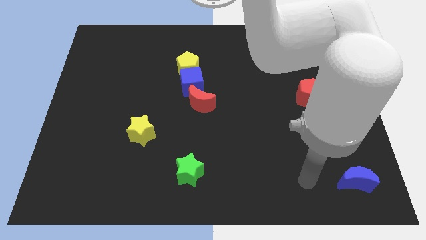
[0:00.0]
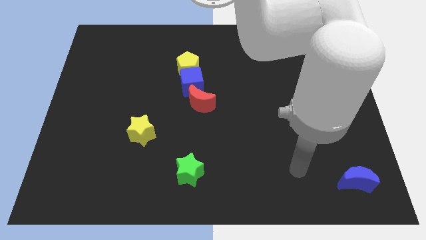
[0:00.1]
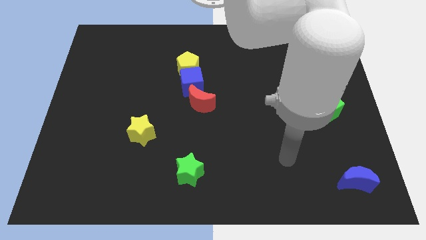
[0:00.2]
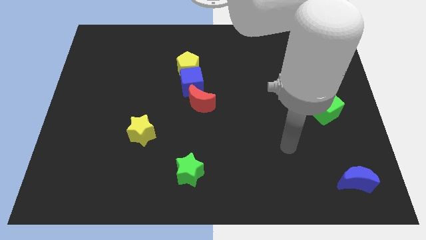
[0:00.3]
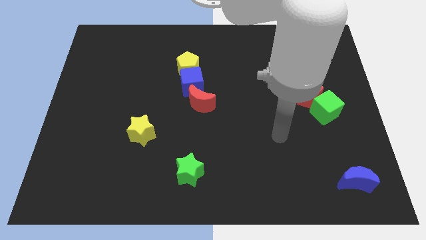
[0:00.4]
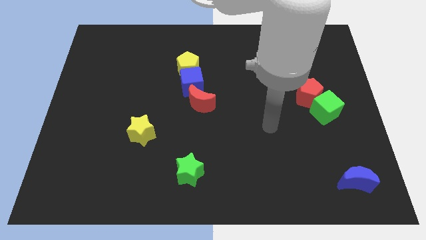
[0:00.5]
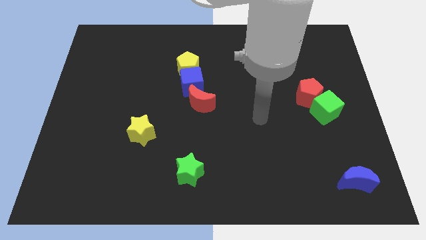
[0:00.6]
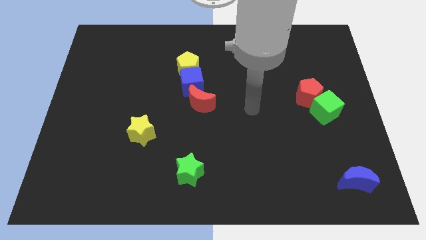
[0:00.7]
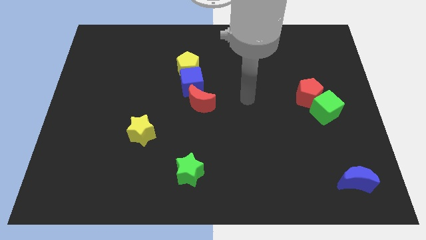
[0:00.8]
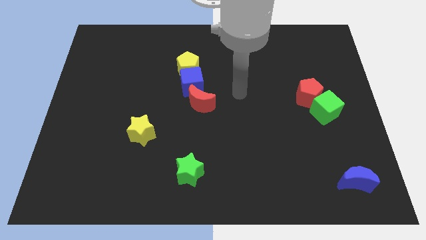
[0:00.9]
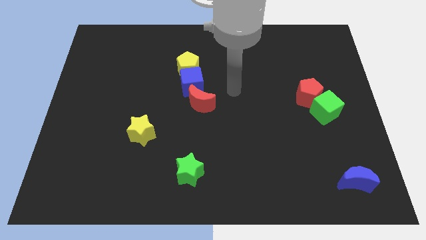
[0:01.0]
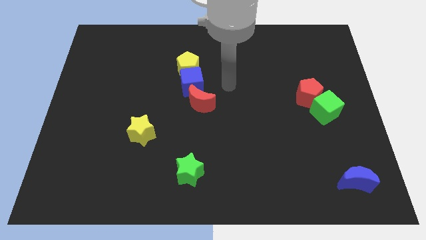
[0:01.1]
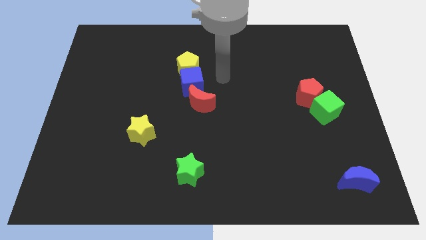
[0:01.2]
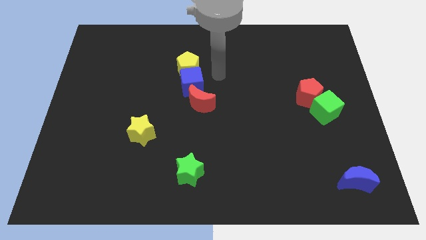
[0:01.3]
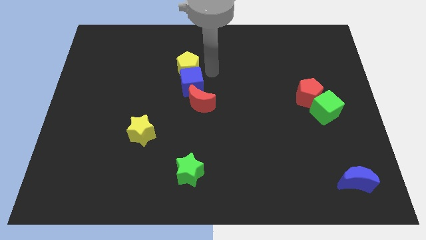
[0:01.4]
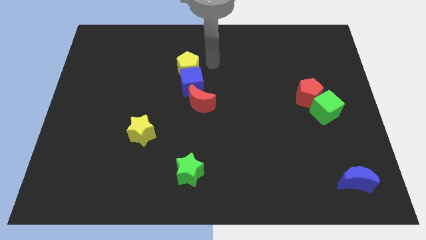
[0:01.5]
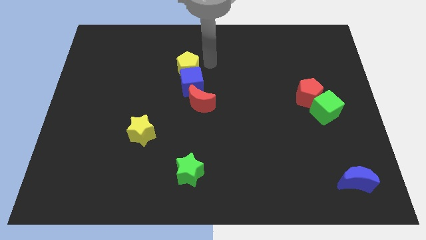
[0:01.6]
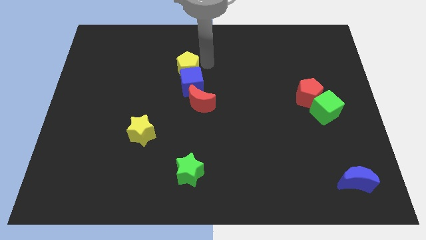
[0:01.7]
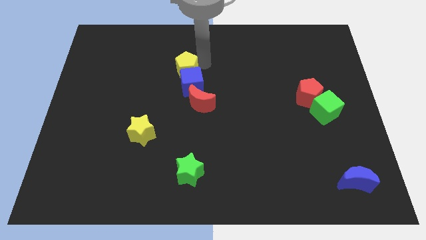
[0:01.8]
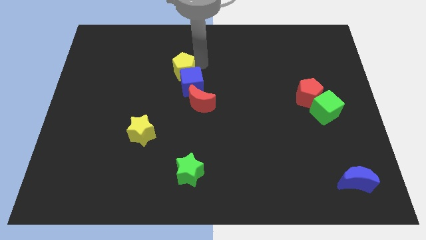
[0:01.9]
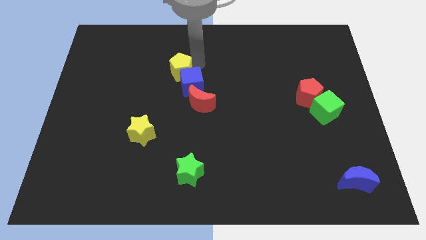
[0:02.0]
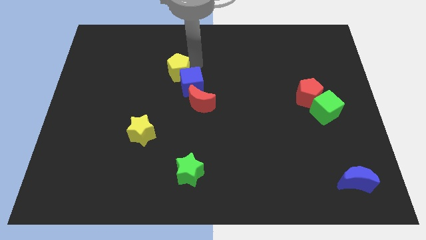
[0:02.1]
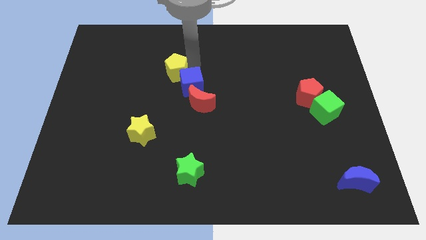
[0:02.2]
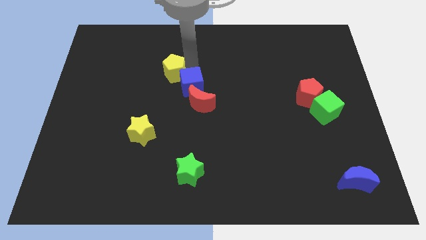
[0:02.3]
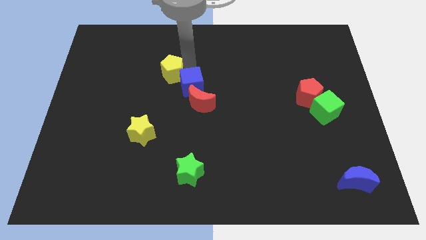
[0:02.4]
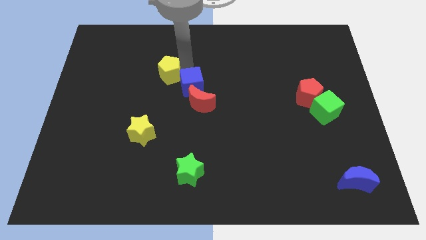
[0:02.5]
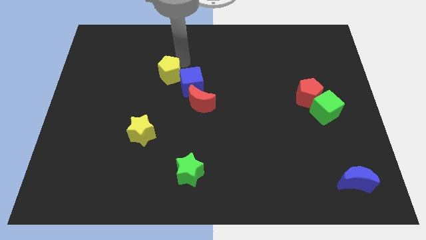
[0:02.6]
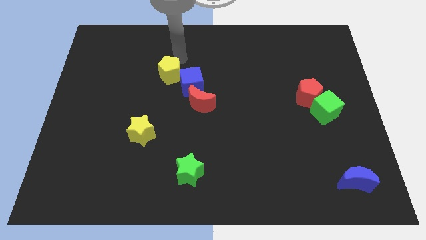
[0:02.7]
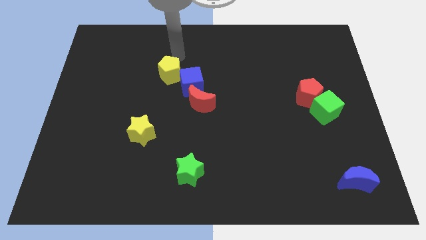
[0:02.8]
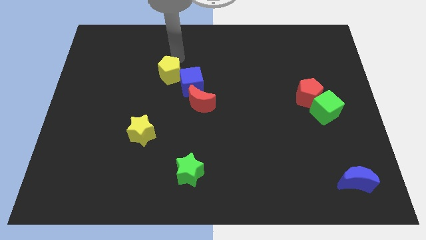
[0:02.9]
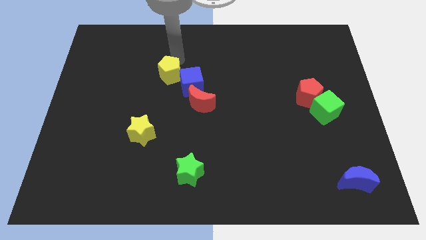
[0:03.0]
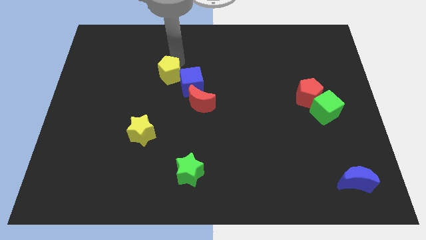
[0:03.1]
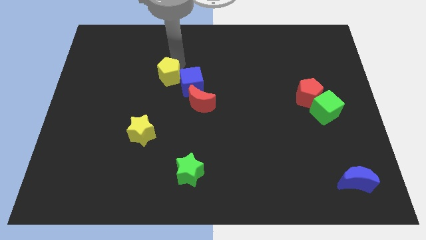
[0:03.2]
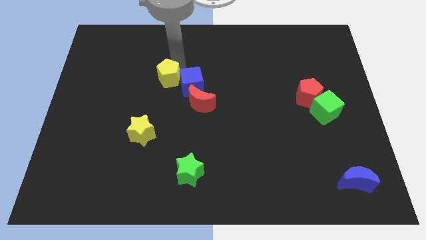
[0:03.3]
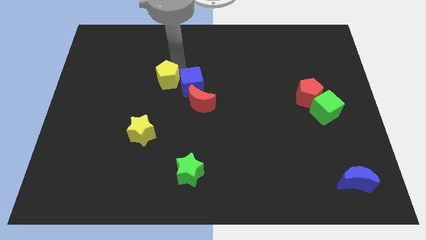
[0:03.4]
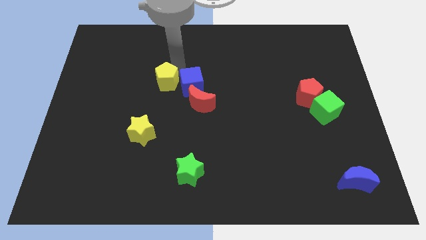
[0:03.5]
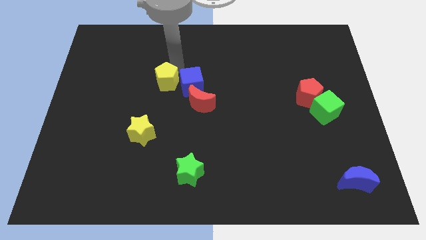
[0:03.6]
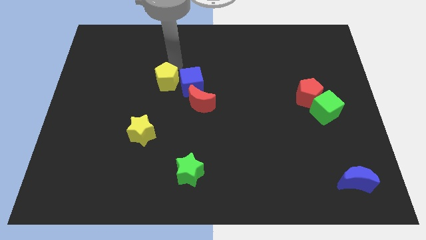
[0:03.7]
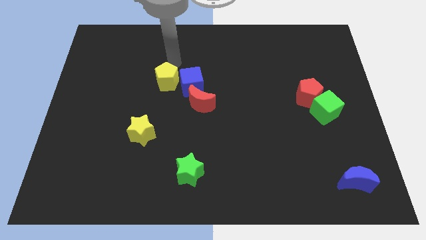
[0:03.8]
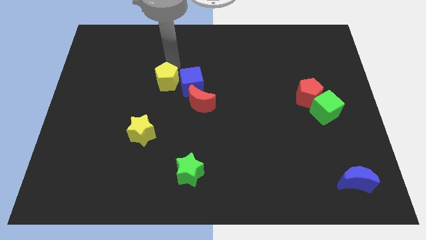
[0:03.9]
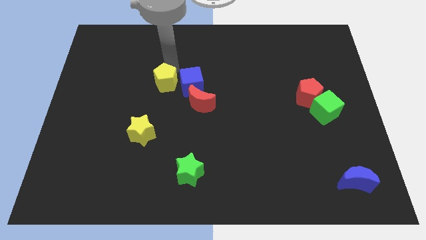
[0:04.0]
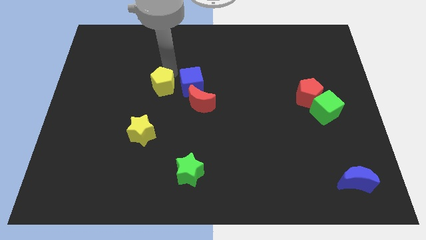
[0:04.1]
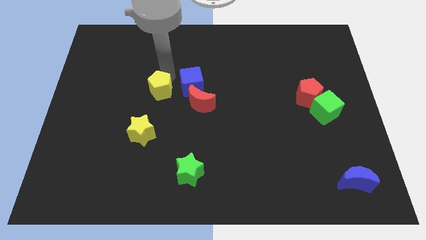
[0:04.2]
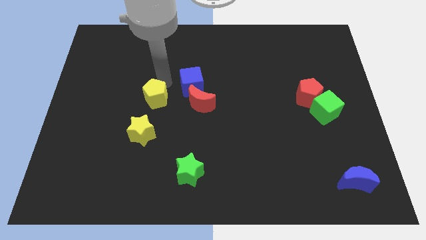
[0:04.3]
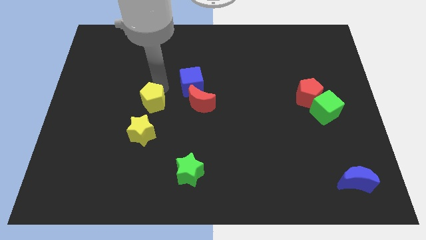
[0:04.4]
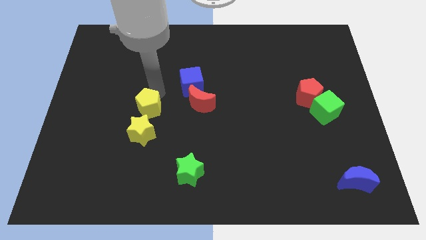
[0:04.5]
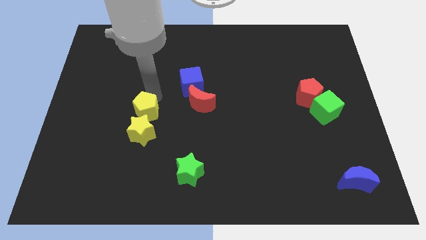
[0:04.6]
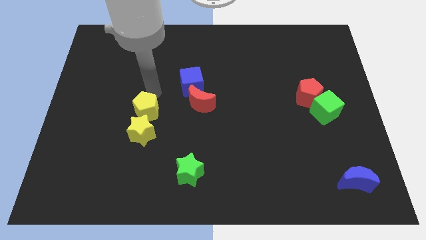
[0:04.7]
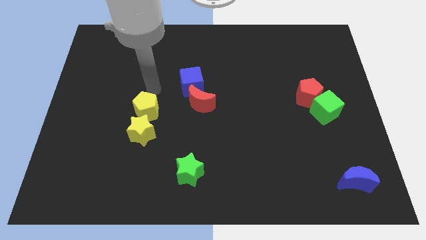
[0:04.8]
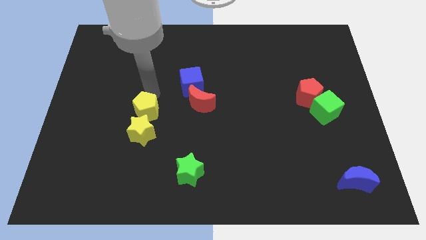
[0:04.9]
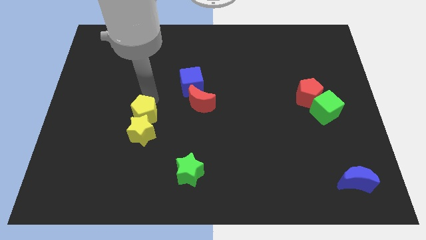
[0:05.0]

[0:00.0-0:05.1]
push the yellow pentagon close to the yellow star

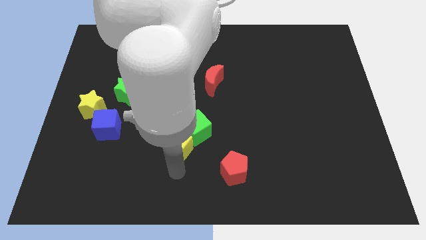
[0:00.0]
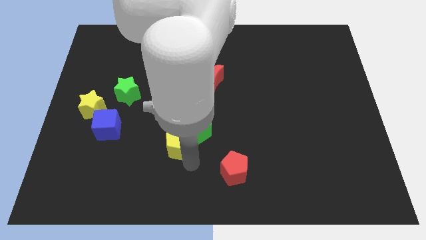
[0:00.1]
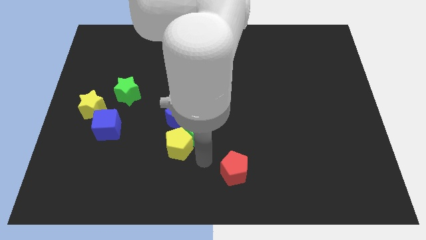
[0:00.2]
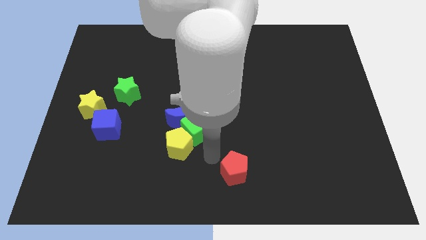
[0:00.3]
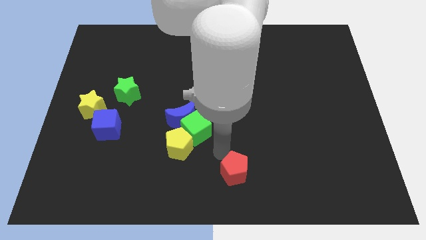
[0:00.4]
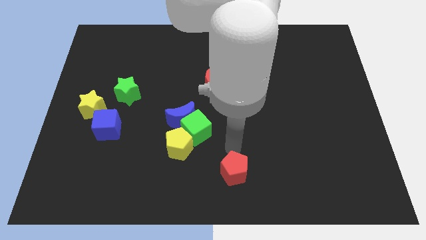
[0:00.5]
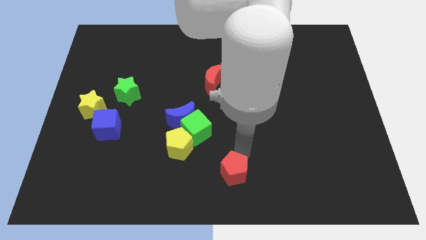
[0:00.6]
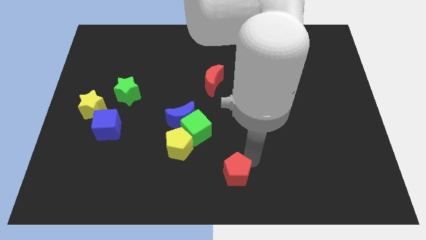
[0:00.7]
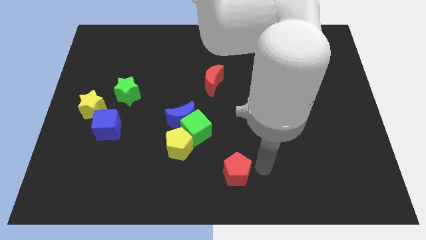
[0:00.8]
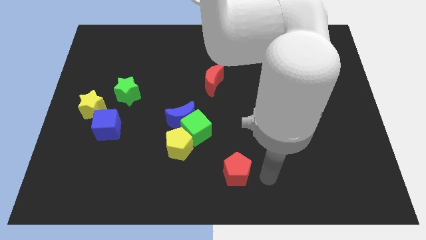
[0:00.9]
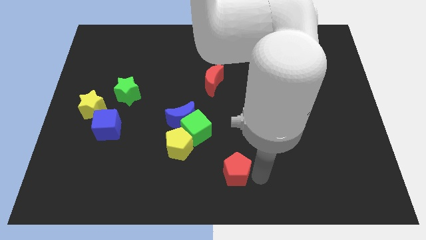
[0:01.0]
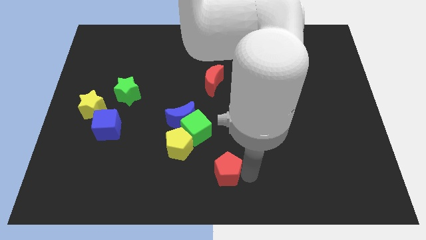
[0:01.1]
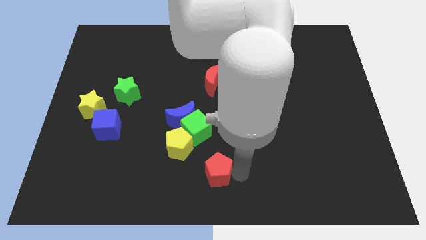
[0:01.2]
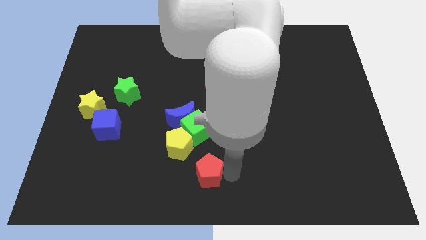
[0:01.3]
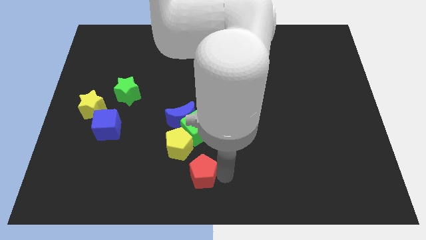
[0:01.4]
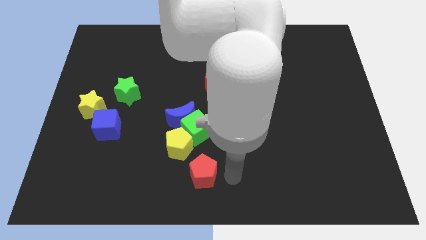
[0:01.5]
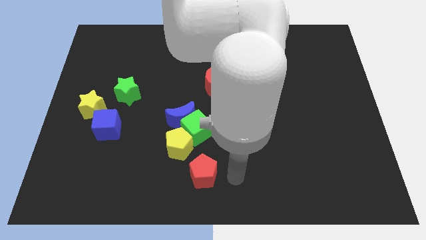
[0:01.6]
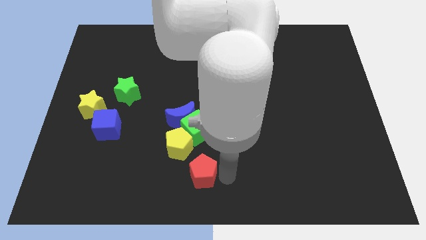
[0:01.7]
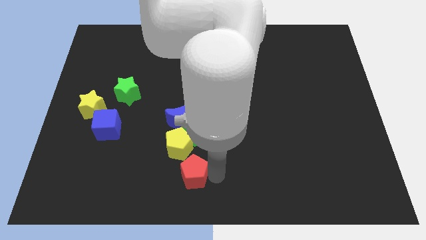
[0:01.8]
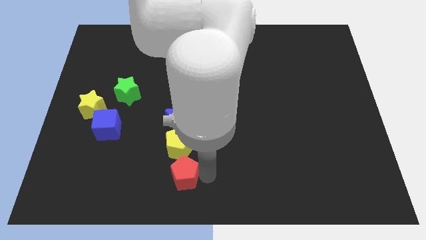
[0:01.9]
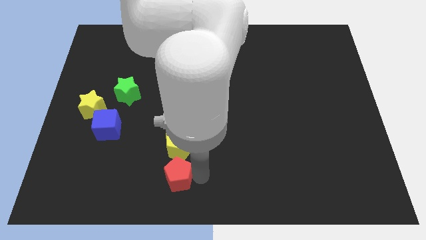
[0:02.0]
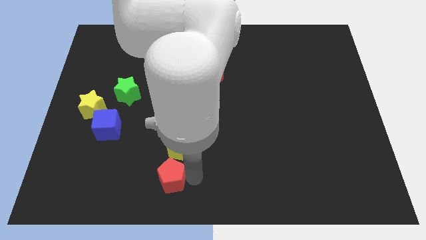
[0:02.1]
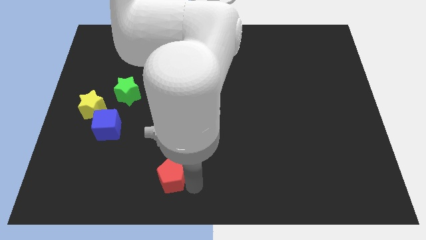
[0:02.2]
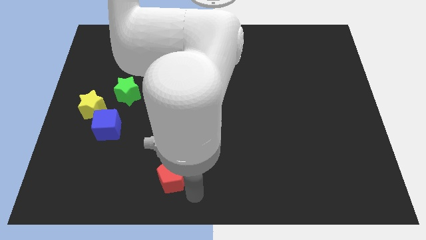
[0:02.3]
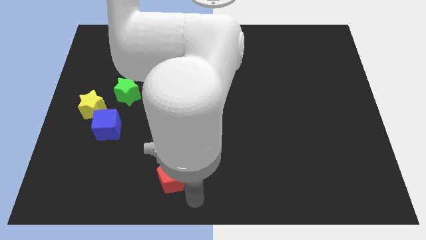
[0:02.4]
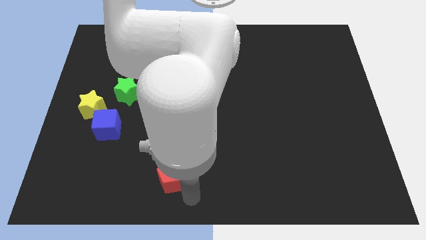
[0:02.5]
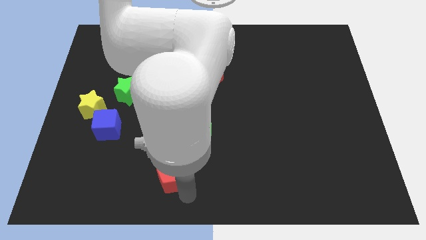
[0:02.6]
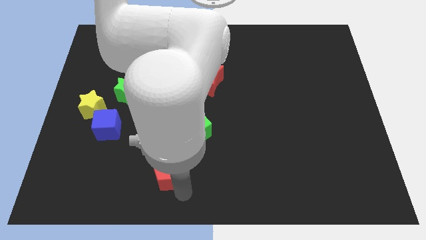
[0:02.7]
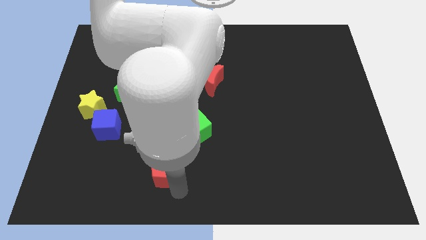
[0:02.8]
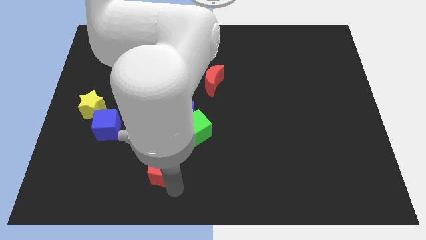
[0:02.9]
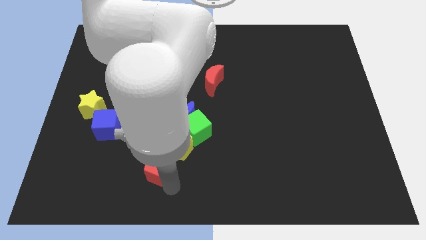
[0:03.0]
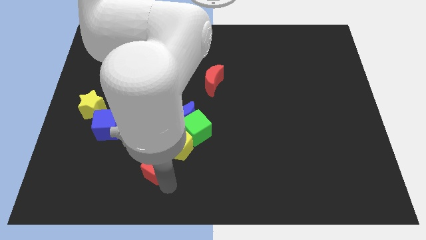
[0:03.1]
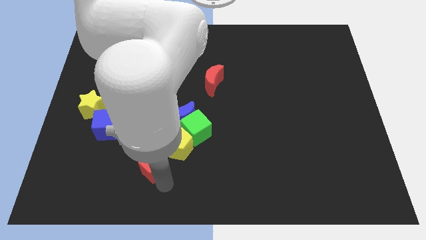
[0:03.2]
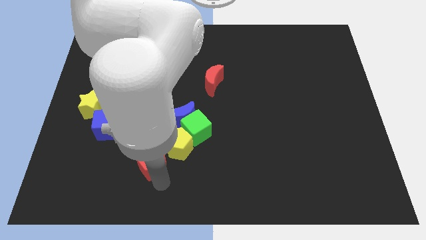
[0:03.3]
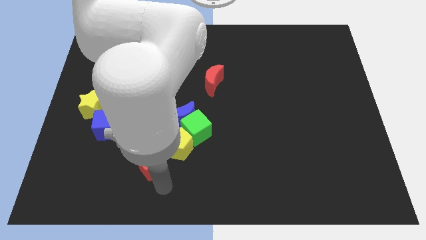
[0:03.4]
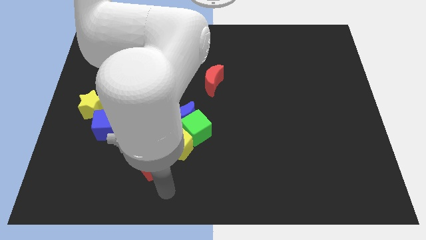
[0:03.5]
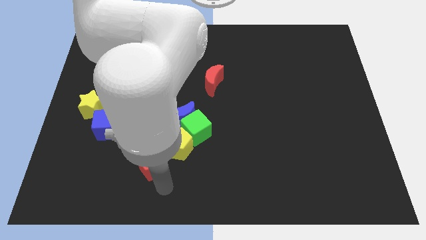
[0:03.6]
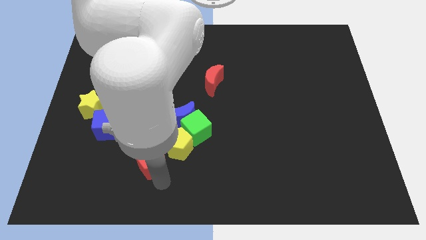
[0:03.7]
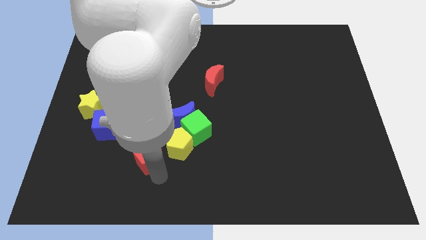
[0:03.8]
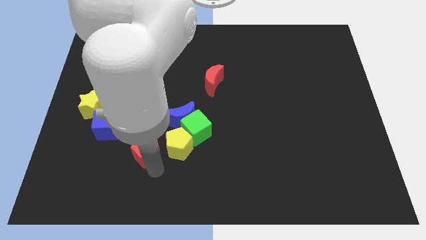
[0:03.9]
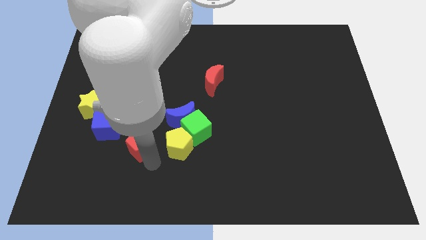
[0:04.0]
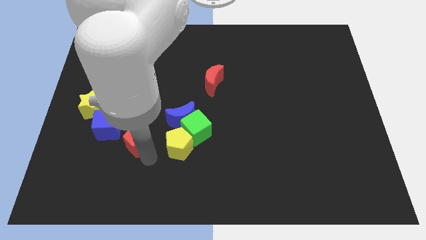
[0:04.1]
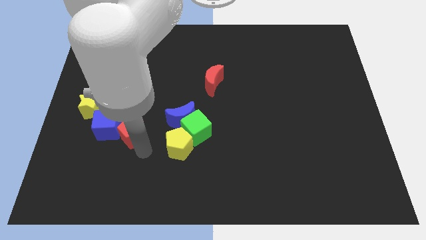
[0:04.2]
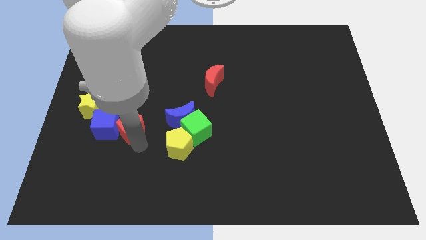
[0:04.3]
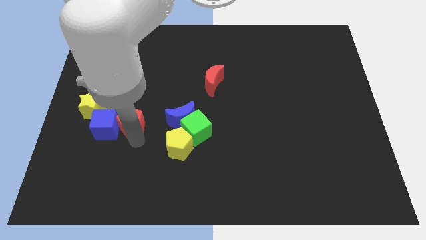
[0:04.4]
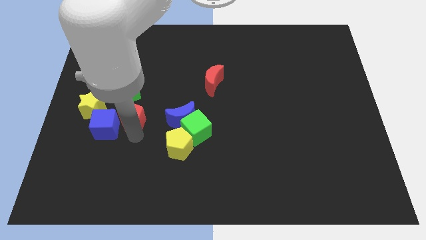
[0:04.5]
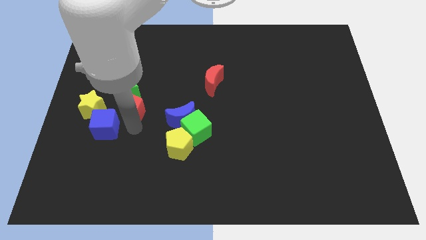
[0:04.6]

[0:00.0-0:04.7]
move the red pentagon towards the green star
